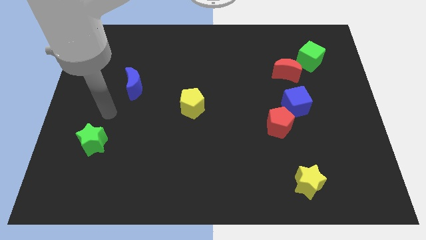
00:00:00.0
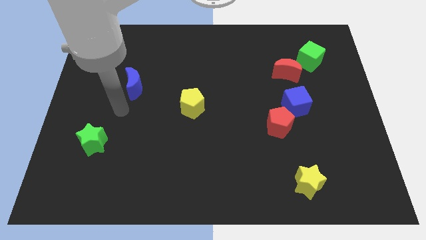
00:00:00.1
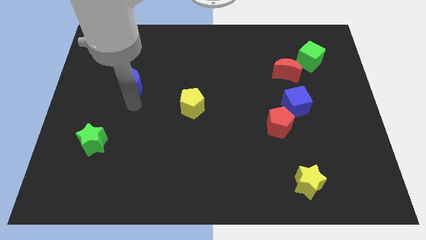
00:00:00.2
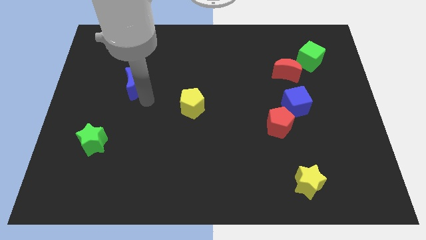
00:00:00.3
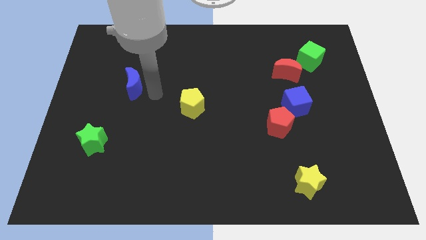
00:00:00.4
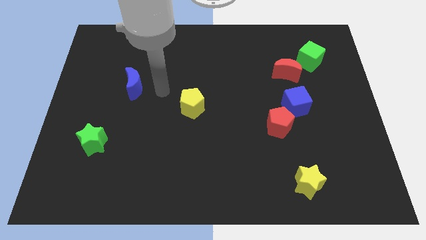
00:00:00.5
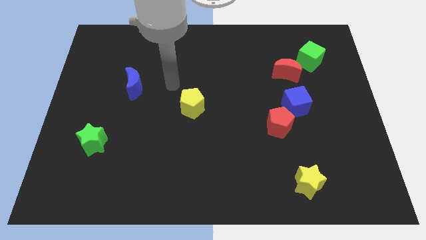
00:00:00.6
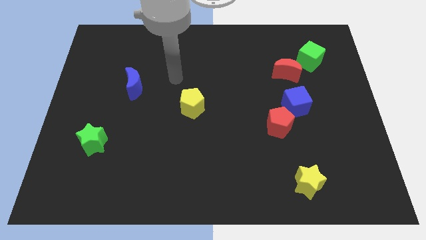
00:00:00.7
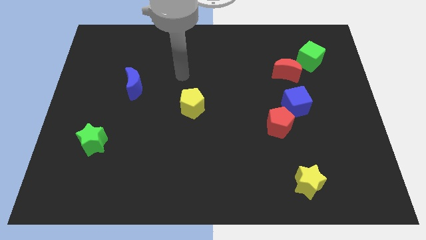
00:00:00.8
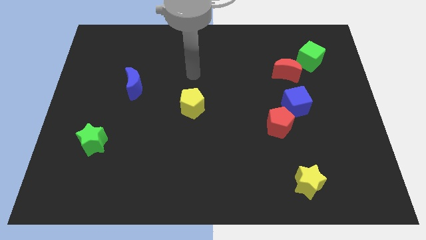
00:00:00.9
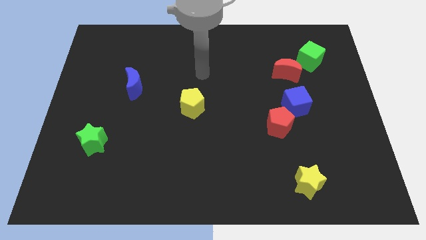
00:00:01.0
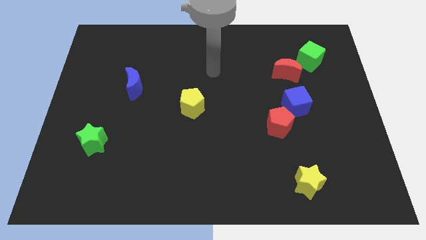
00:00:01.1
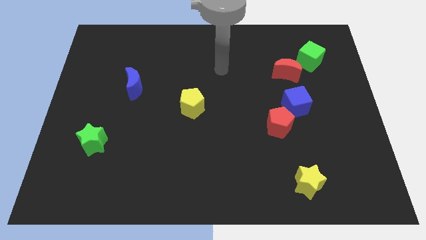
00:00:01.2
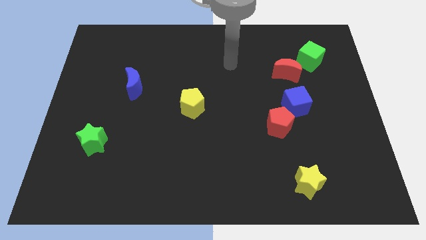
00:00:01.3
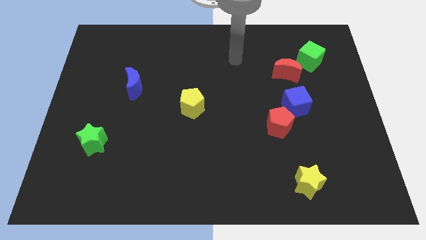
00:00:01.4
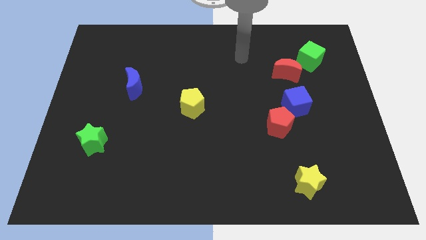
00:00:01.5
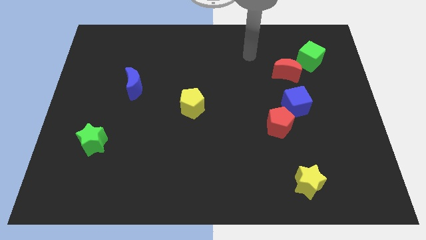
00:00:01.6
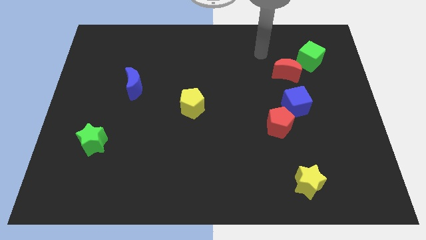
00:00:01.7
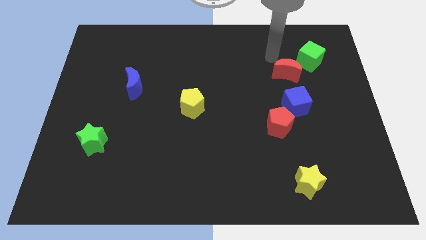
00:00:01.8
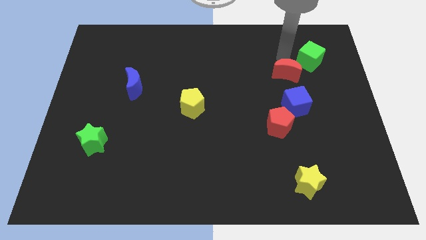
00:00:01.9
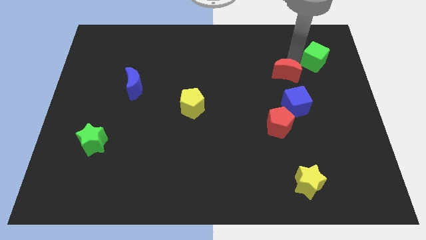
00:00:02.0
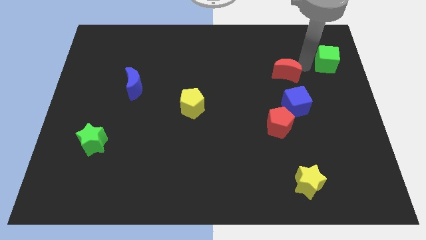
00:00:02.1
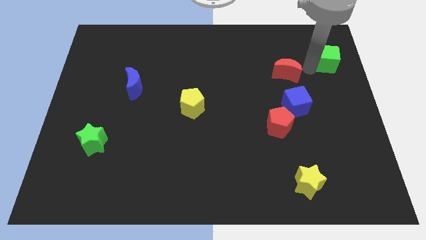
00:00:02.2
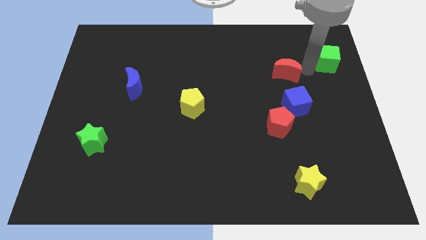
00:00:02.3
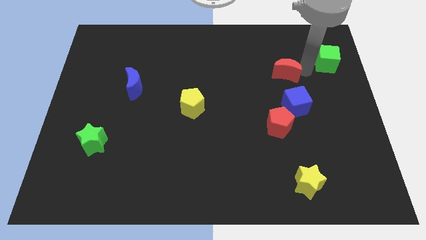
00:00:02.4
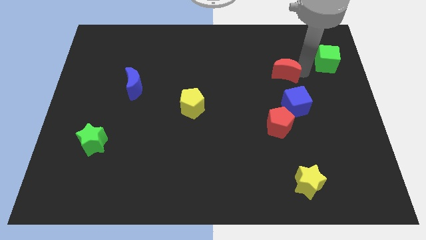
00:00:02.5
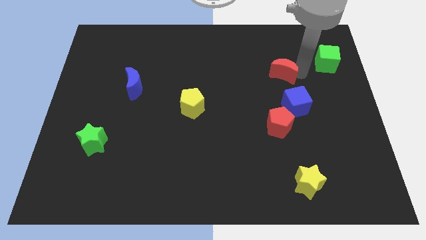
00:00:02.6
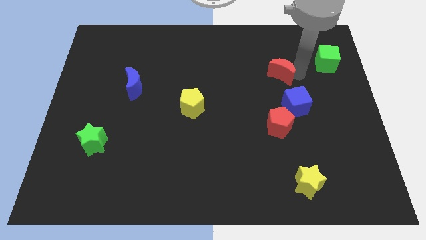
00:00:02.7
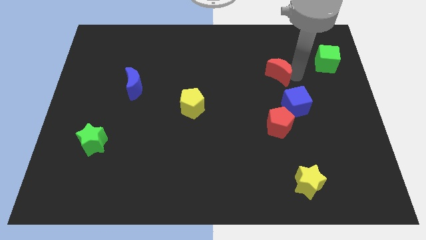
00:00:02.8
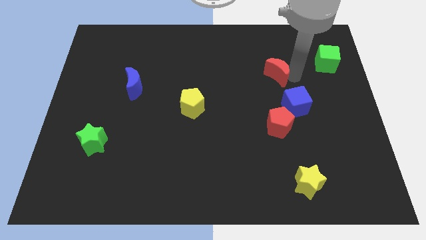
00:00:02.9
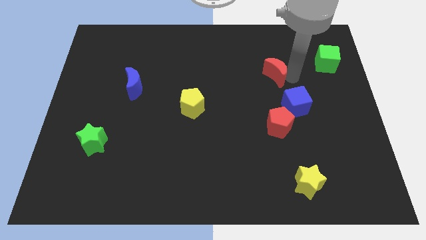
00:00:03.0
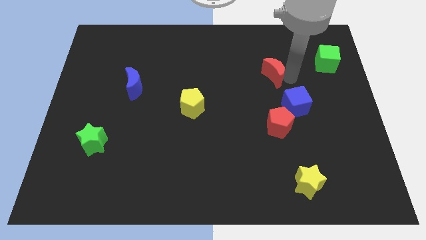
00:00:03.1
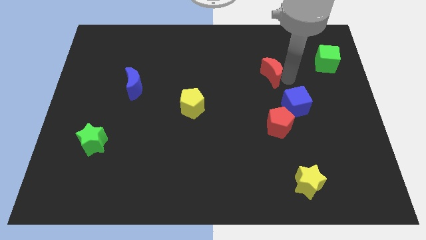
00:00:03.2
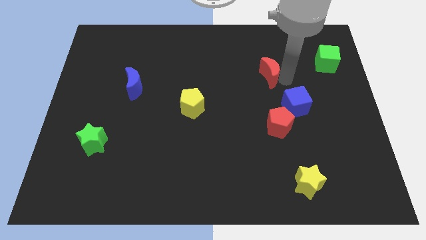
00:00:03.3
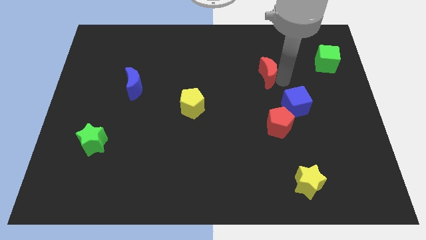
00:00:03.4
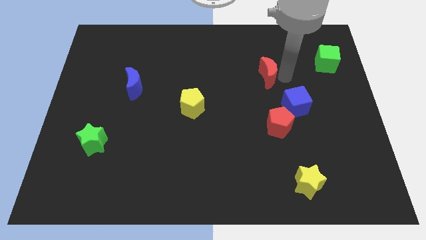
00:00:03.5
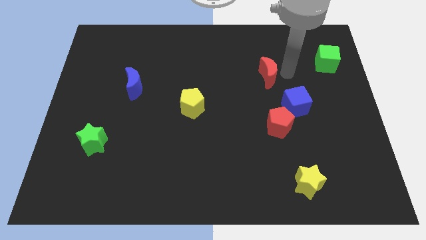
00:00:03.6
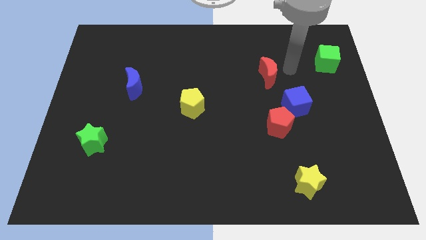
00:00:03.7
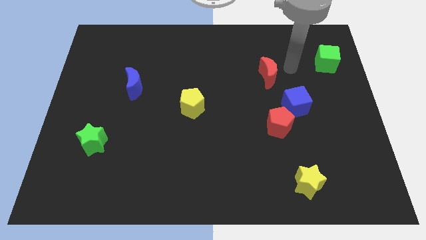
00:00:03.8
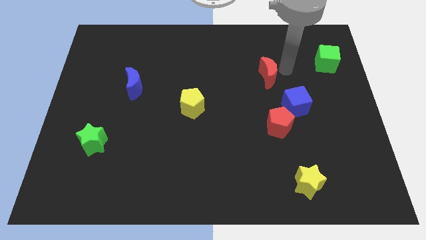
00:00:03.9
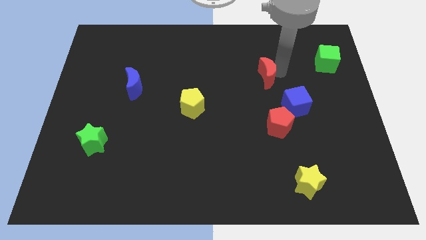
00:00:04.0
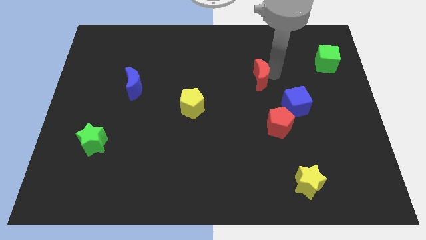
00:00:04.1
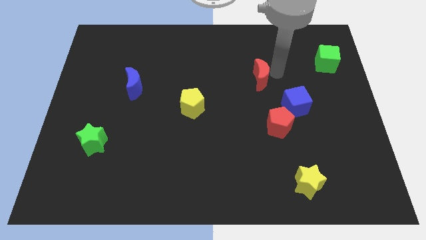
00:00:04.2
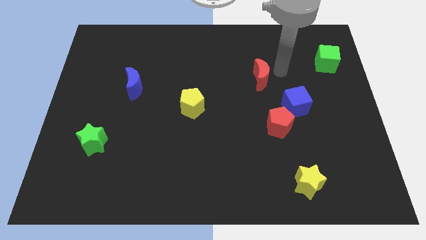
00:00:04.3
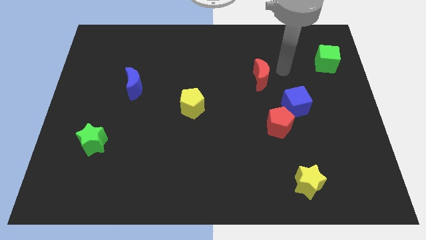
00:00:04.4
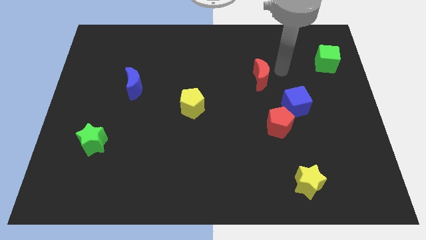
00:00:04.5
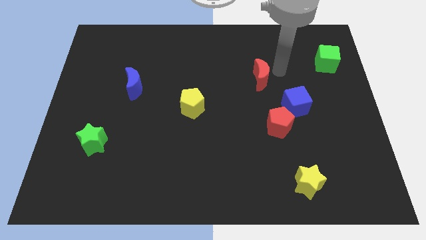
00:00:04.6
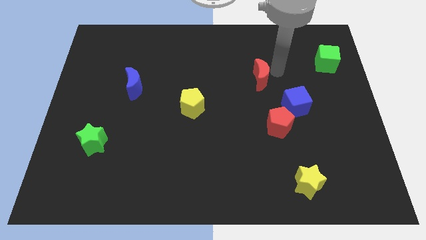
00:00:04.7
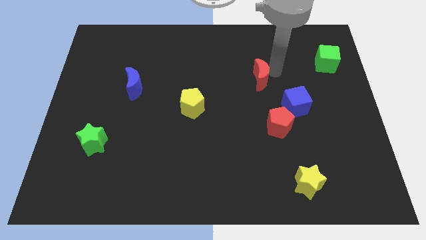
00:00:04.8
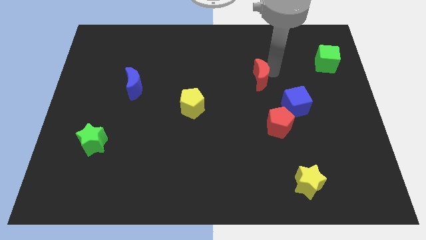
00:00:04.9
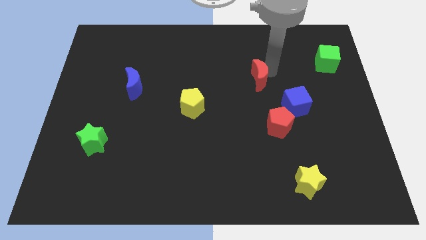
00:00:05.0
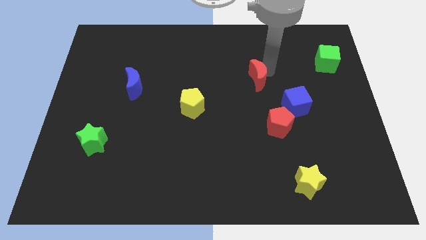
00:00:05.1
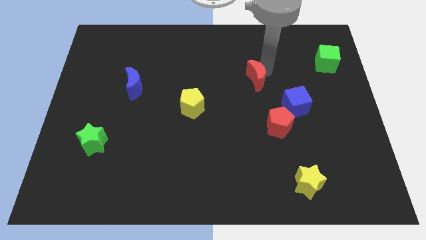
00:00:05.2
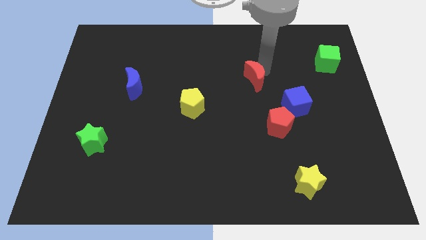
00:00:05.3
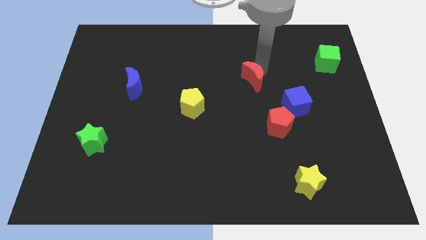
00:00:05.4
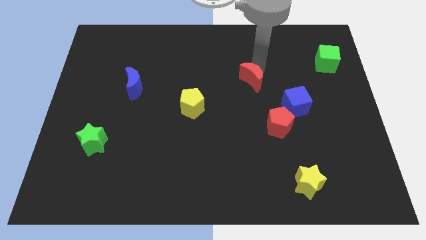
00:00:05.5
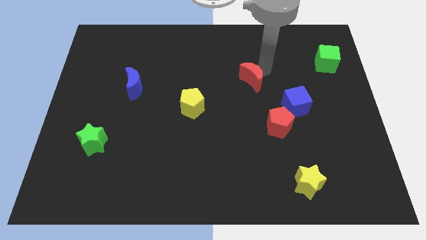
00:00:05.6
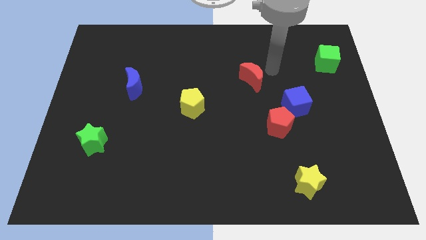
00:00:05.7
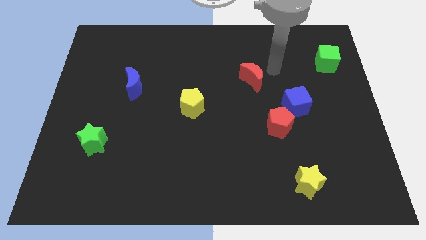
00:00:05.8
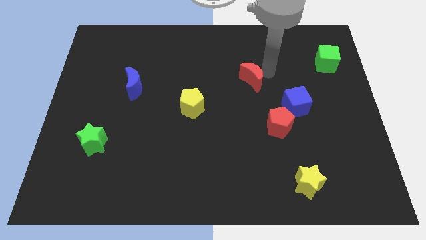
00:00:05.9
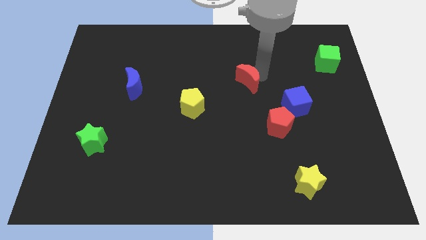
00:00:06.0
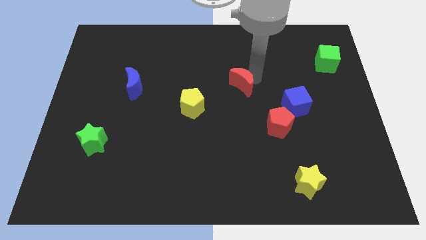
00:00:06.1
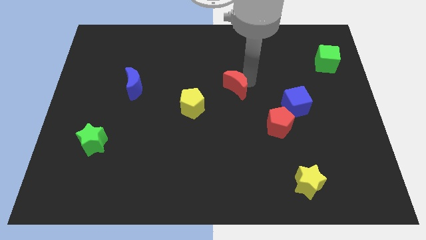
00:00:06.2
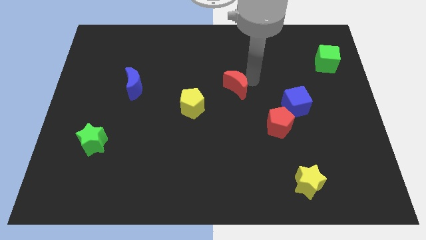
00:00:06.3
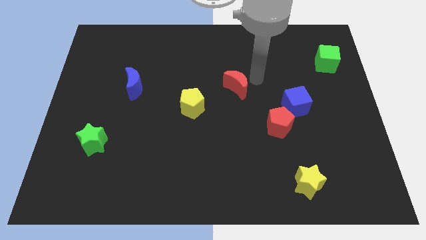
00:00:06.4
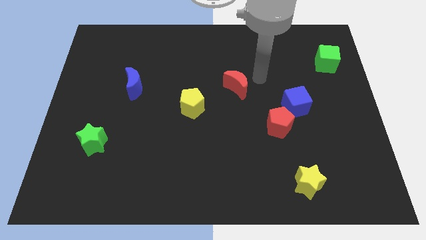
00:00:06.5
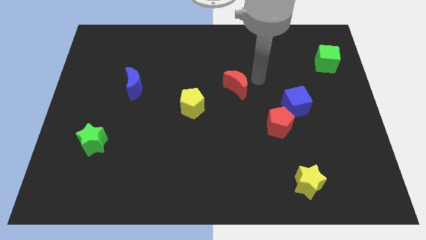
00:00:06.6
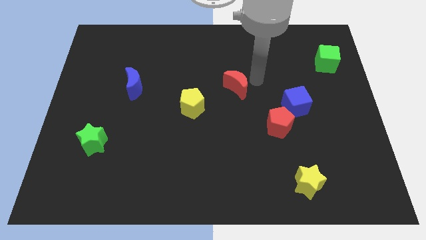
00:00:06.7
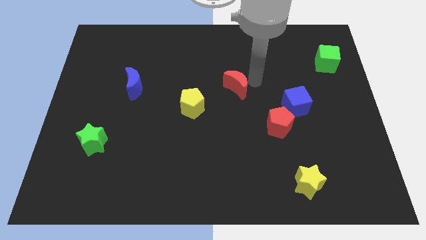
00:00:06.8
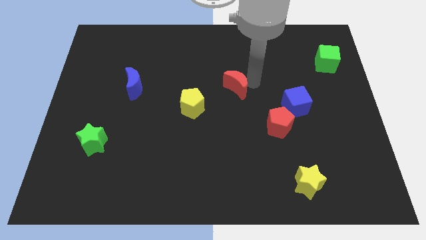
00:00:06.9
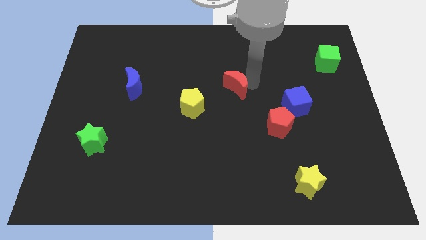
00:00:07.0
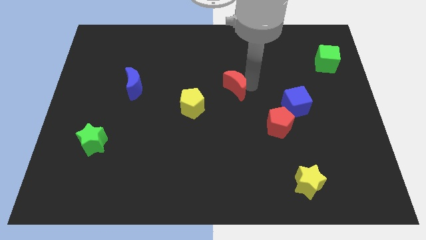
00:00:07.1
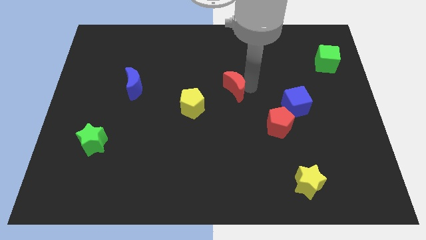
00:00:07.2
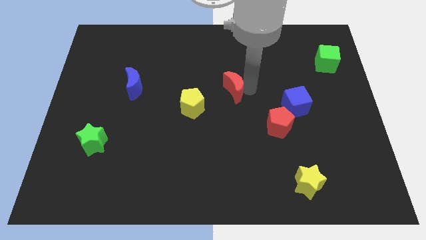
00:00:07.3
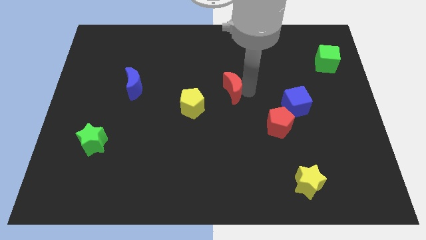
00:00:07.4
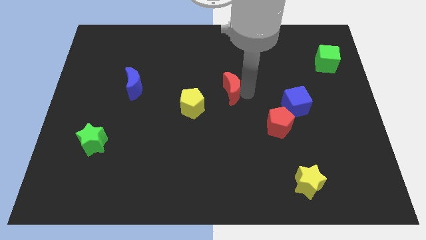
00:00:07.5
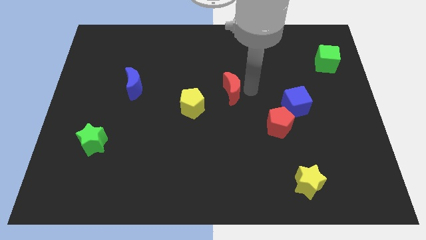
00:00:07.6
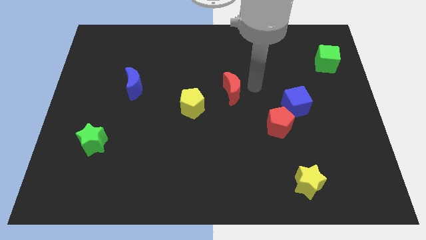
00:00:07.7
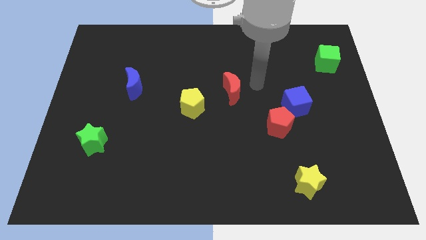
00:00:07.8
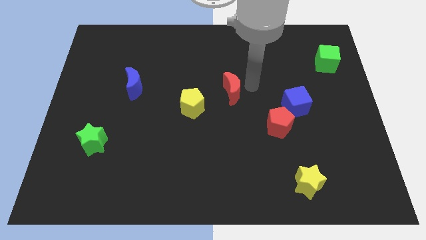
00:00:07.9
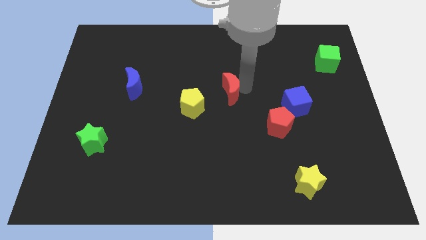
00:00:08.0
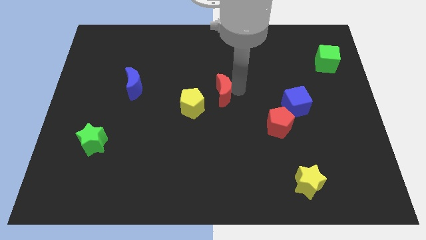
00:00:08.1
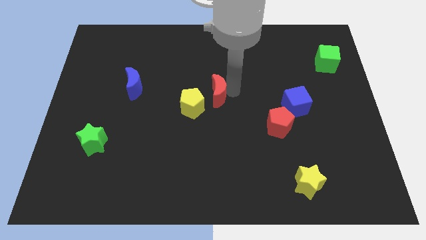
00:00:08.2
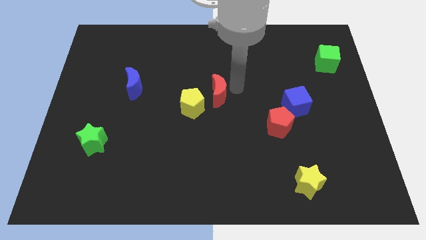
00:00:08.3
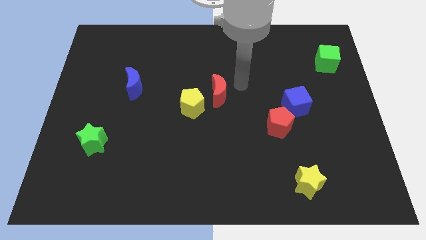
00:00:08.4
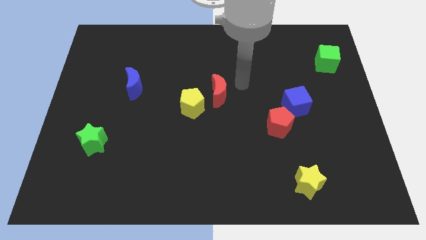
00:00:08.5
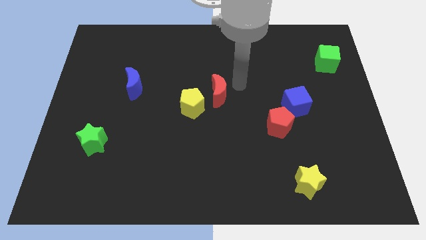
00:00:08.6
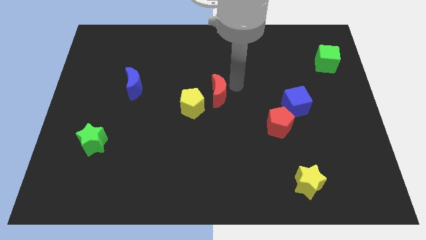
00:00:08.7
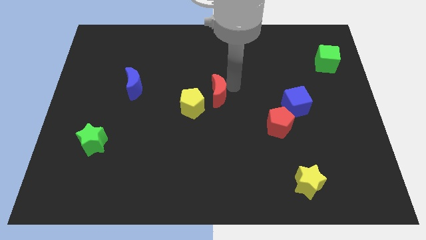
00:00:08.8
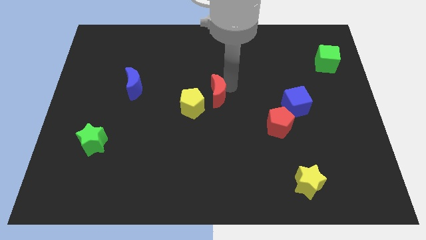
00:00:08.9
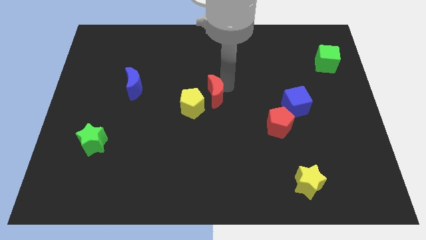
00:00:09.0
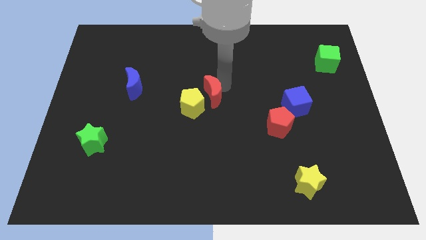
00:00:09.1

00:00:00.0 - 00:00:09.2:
move the red moon to the yellow pentagon
